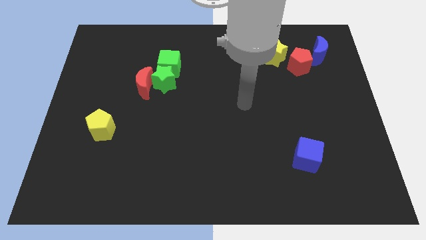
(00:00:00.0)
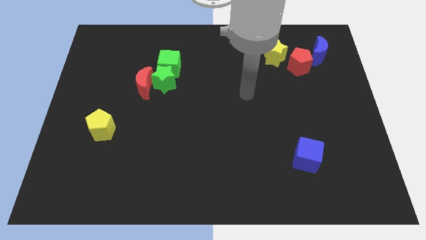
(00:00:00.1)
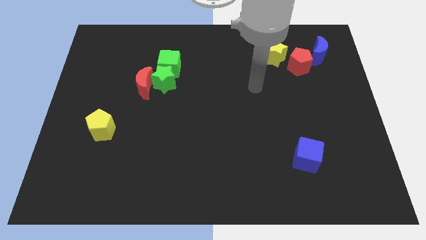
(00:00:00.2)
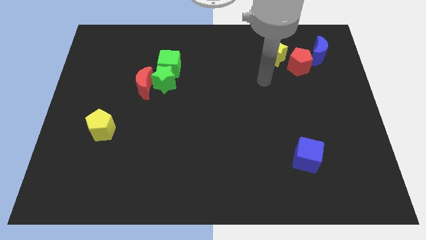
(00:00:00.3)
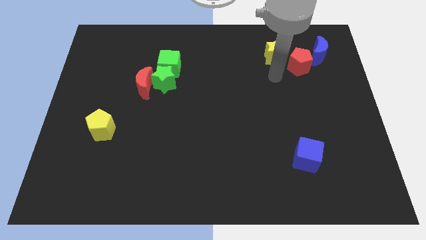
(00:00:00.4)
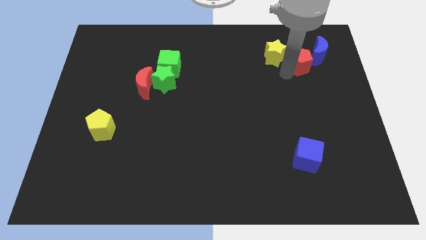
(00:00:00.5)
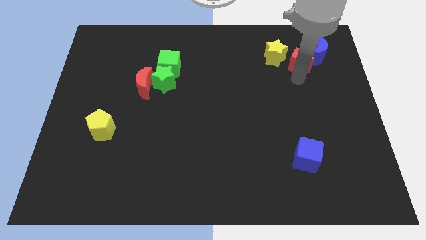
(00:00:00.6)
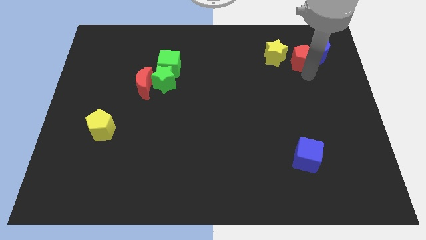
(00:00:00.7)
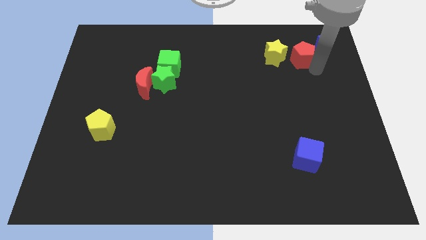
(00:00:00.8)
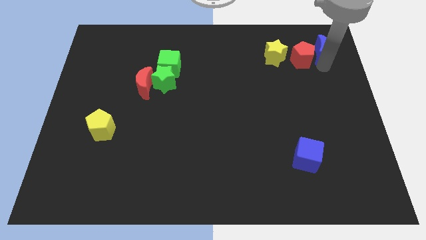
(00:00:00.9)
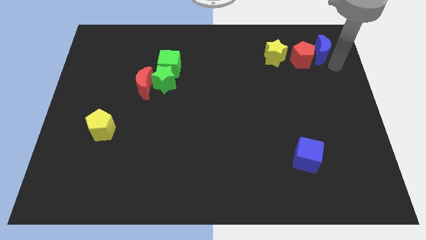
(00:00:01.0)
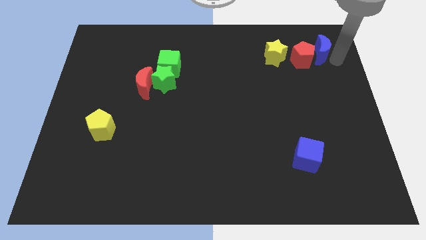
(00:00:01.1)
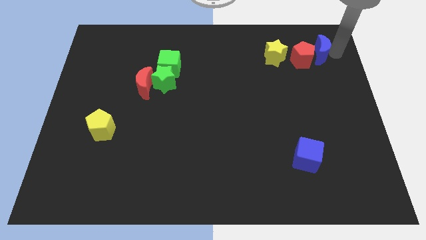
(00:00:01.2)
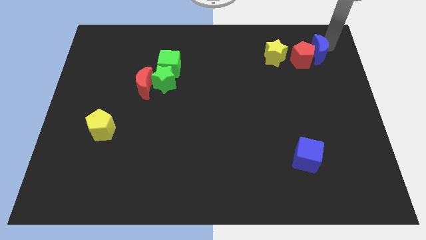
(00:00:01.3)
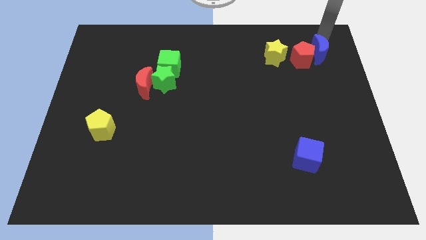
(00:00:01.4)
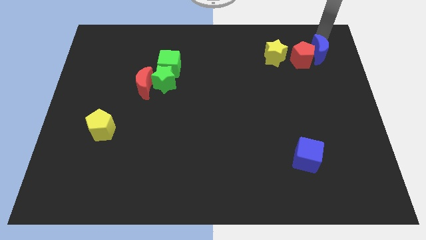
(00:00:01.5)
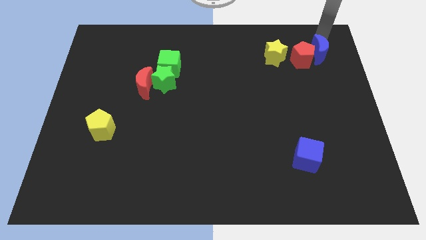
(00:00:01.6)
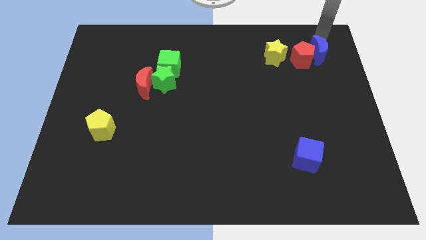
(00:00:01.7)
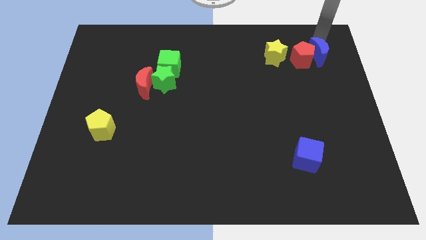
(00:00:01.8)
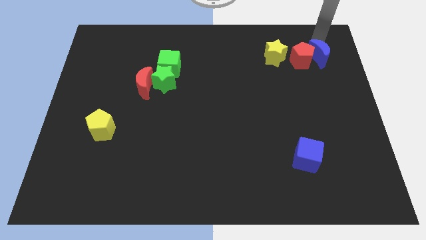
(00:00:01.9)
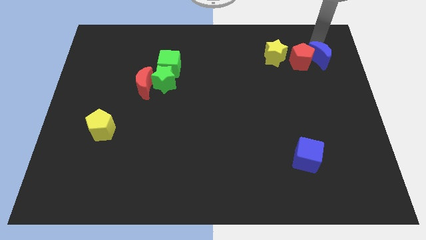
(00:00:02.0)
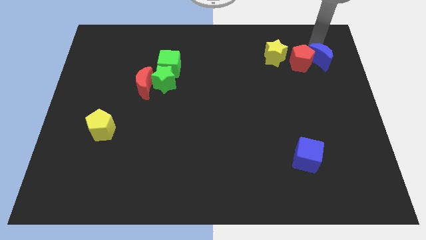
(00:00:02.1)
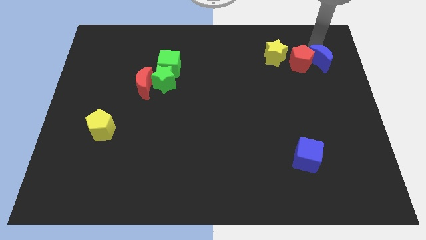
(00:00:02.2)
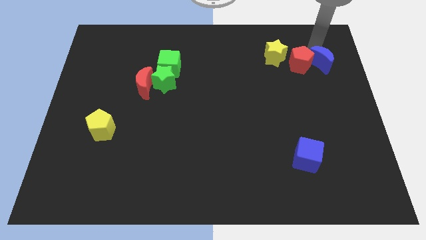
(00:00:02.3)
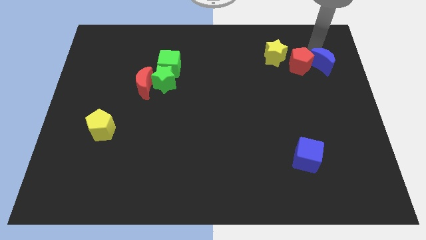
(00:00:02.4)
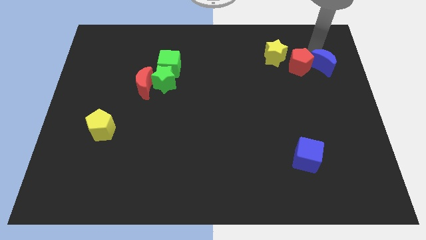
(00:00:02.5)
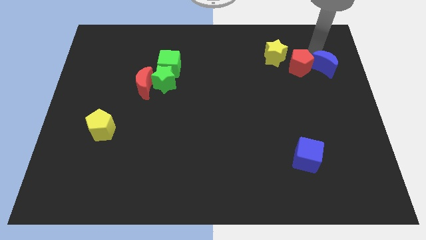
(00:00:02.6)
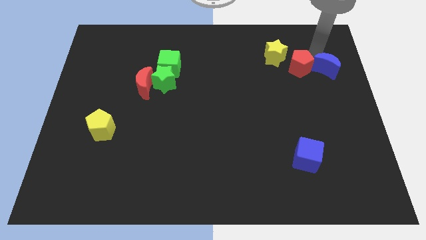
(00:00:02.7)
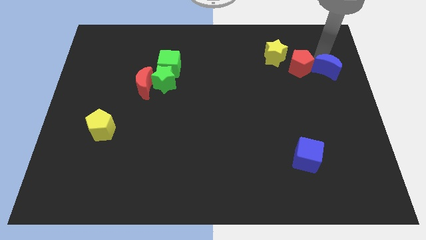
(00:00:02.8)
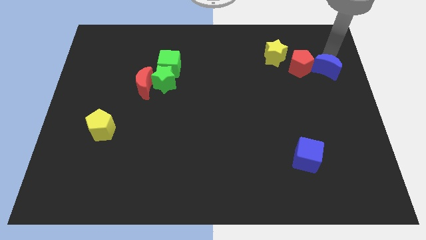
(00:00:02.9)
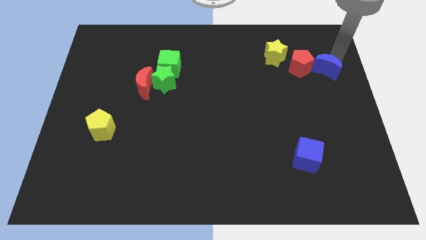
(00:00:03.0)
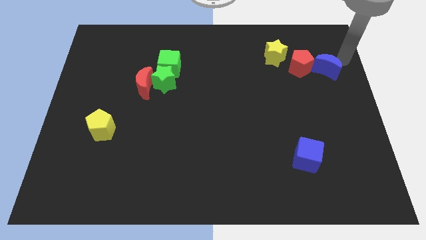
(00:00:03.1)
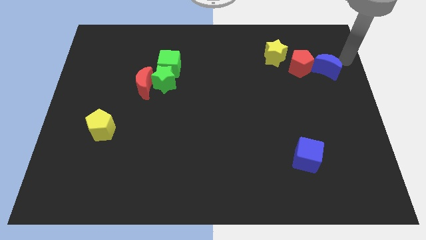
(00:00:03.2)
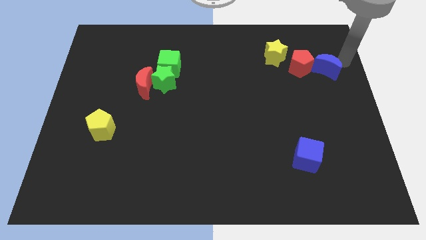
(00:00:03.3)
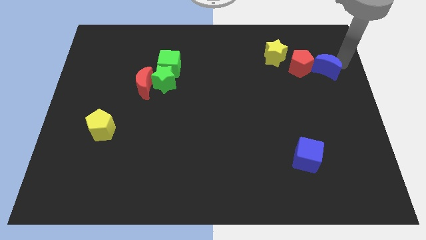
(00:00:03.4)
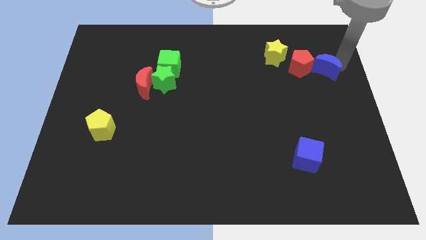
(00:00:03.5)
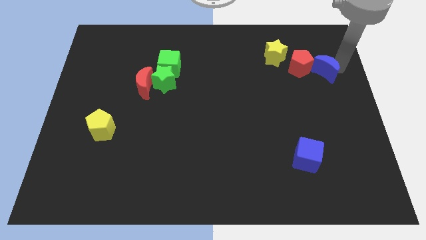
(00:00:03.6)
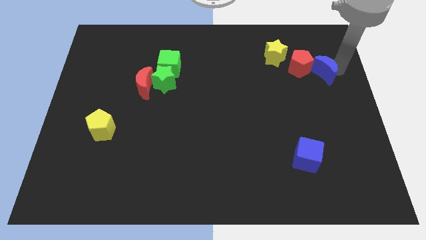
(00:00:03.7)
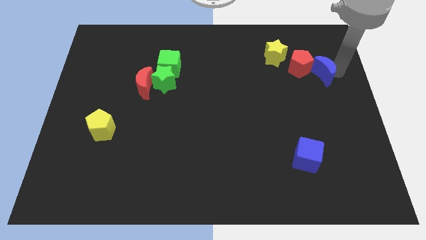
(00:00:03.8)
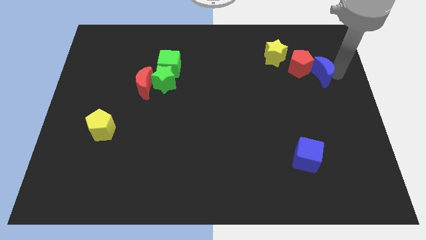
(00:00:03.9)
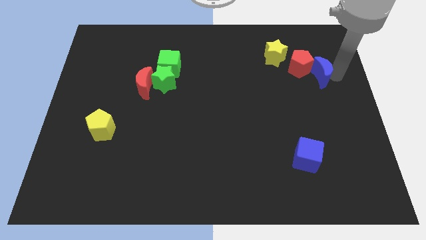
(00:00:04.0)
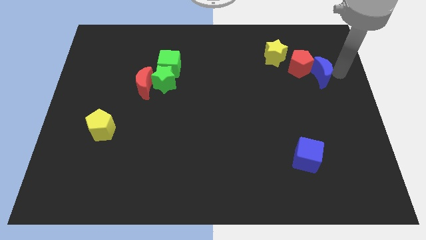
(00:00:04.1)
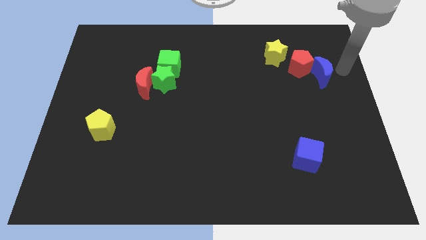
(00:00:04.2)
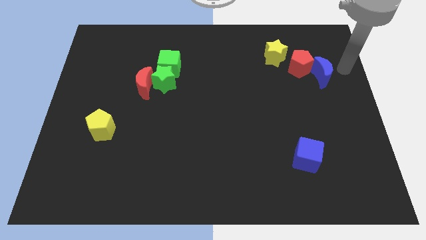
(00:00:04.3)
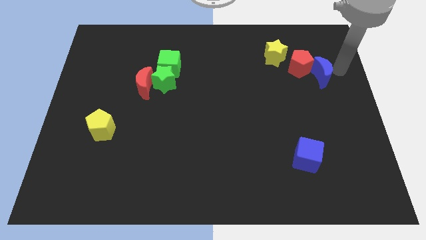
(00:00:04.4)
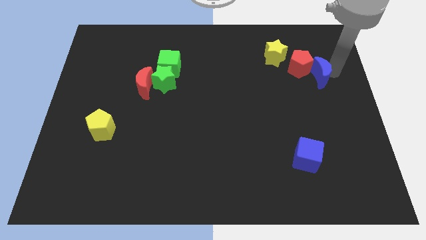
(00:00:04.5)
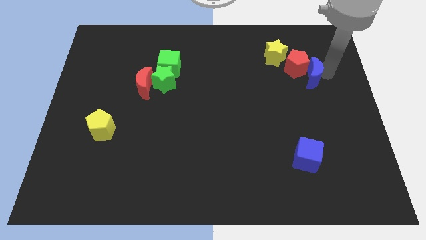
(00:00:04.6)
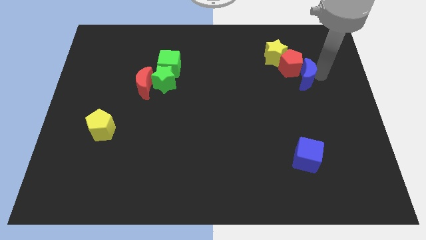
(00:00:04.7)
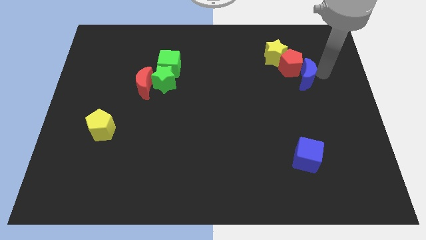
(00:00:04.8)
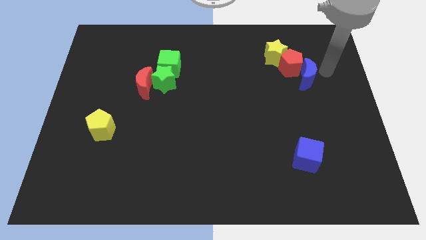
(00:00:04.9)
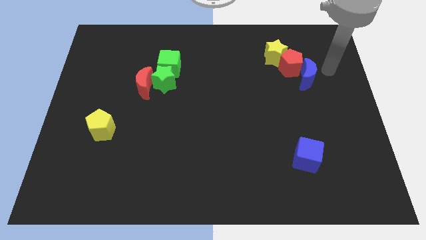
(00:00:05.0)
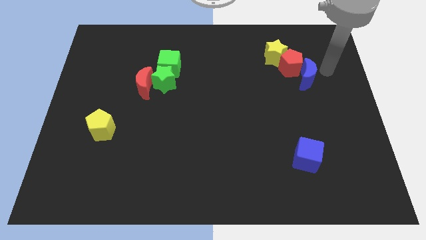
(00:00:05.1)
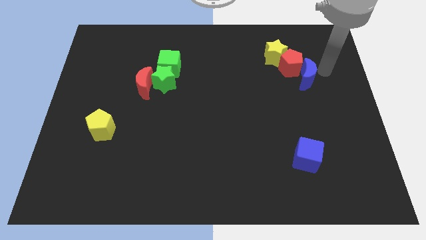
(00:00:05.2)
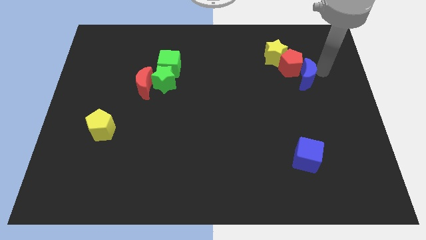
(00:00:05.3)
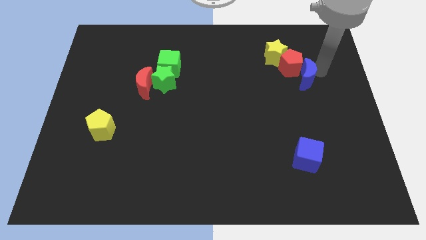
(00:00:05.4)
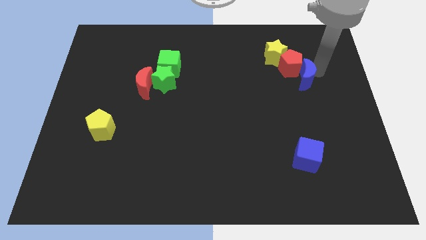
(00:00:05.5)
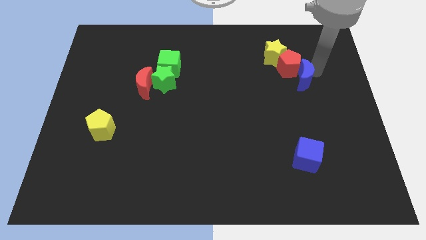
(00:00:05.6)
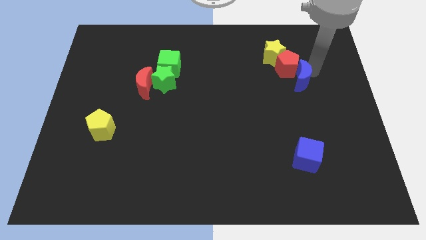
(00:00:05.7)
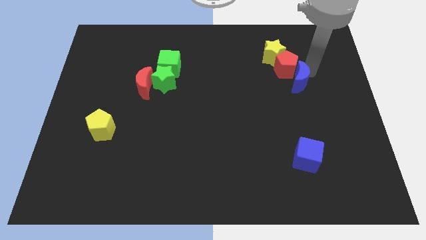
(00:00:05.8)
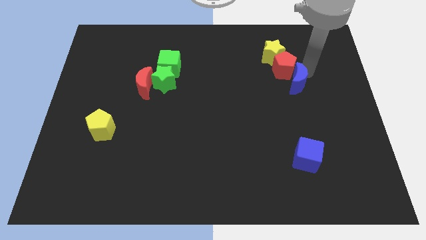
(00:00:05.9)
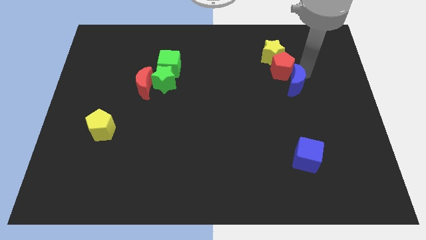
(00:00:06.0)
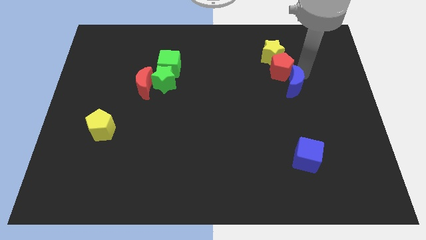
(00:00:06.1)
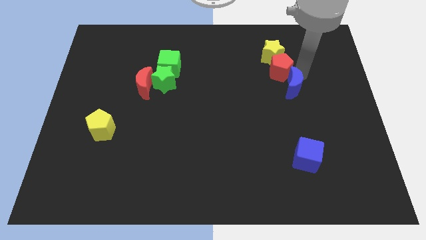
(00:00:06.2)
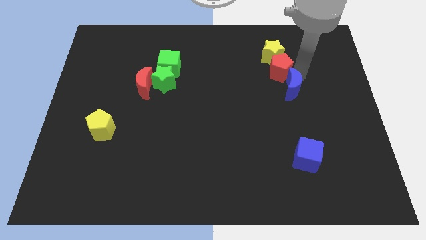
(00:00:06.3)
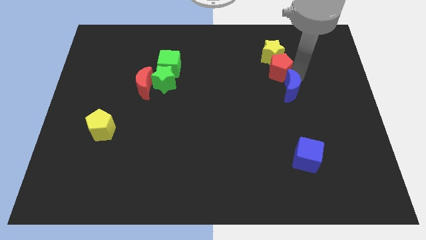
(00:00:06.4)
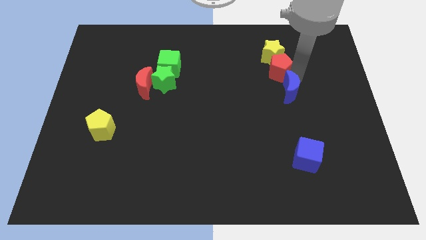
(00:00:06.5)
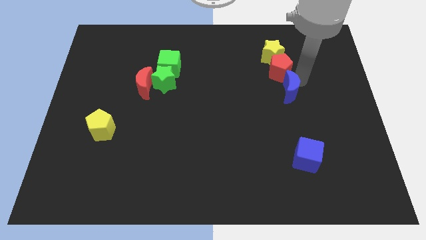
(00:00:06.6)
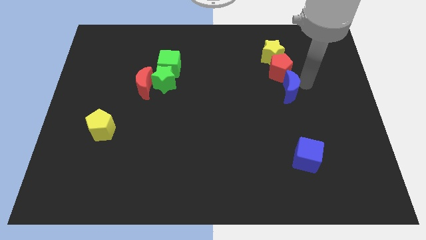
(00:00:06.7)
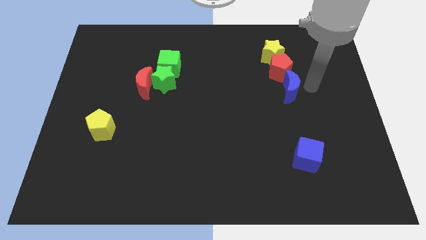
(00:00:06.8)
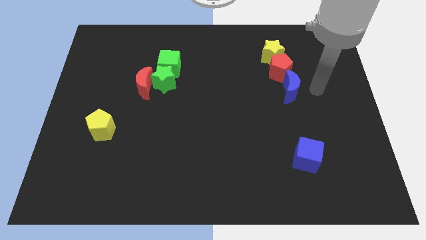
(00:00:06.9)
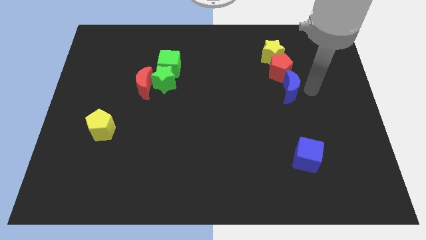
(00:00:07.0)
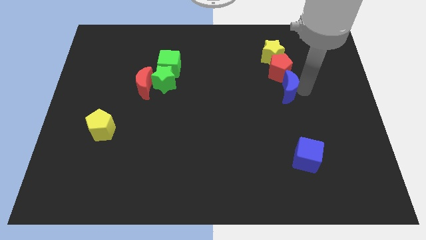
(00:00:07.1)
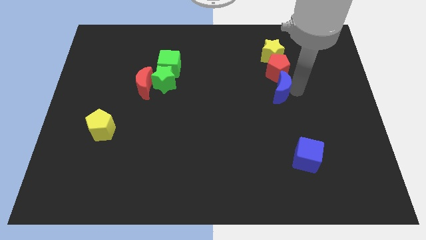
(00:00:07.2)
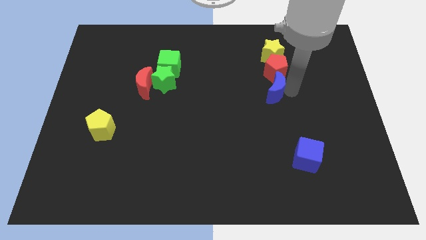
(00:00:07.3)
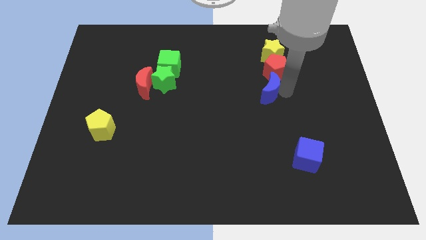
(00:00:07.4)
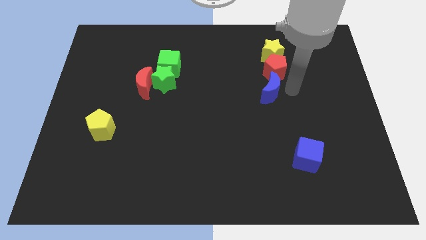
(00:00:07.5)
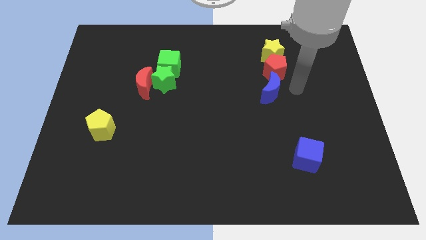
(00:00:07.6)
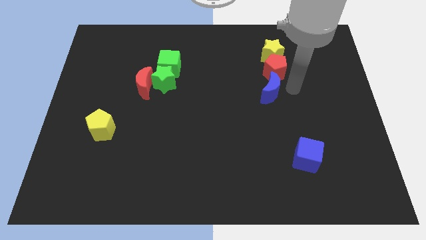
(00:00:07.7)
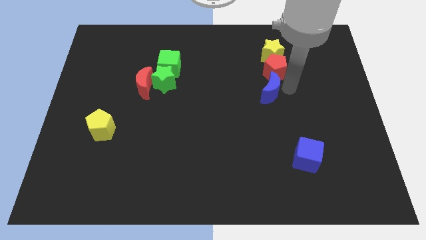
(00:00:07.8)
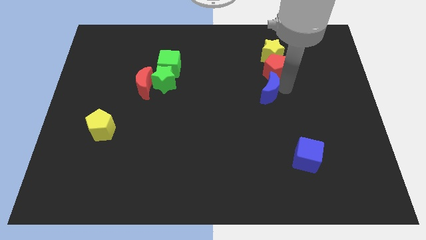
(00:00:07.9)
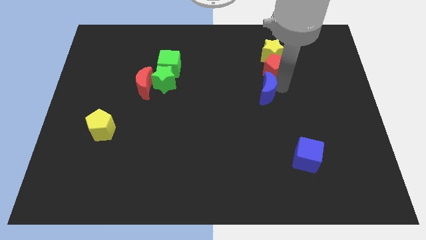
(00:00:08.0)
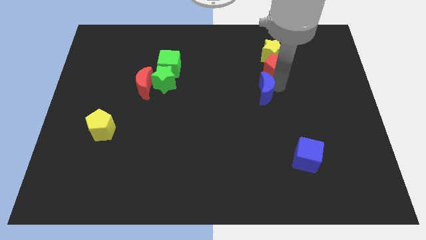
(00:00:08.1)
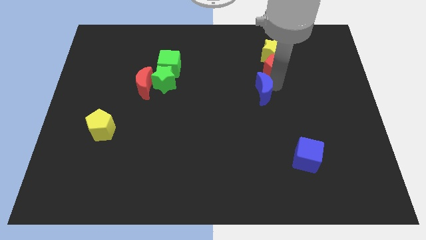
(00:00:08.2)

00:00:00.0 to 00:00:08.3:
slide the blue moon to the middle
